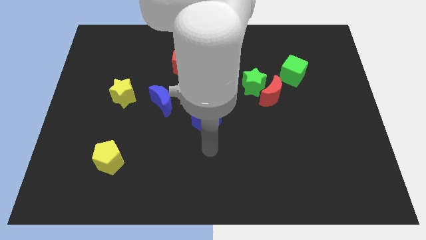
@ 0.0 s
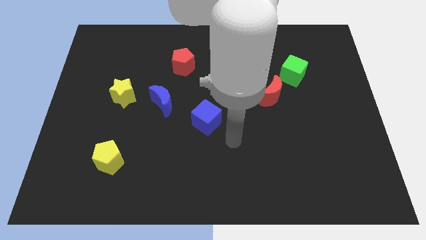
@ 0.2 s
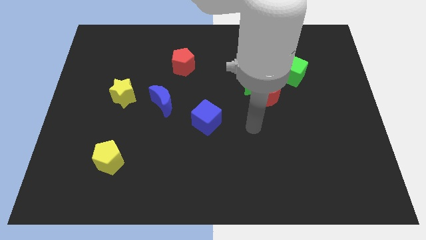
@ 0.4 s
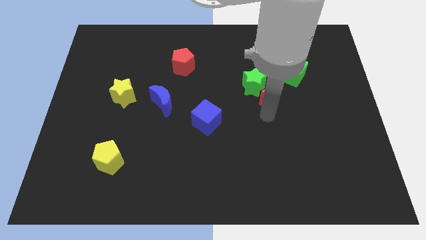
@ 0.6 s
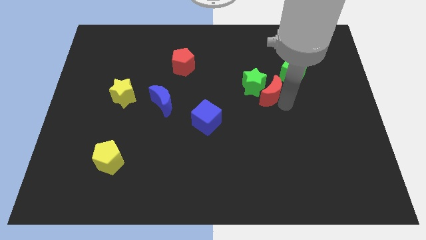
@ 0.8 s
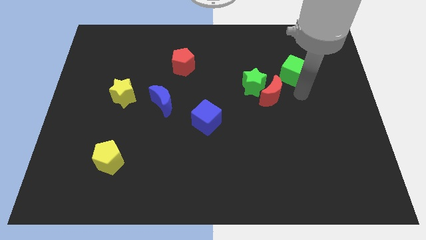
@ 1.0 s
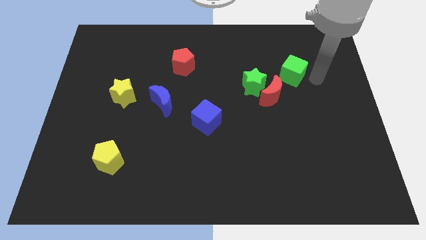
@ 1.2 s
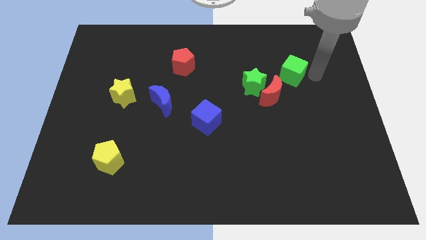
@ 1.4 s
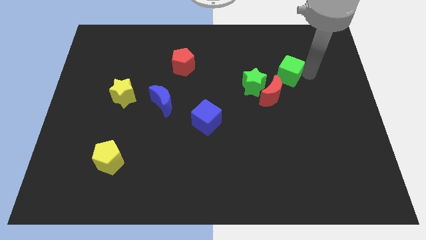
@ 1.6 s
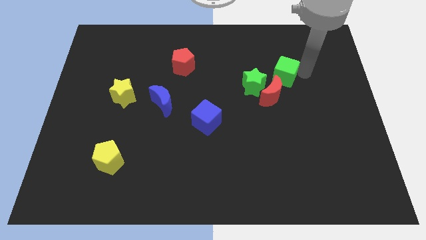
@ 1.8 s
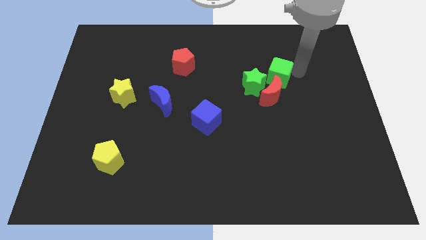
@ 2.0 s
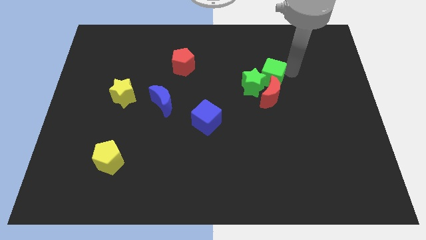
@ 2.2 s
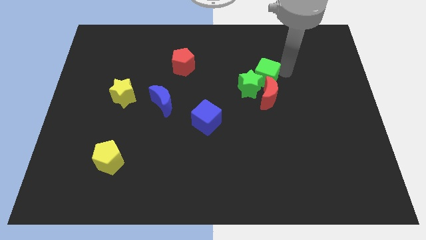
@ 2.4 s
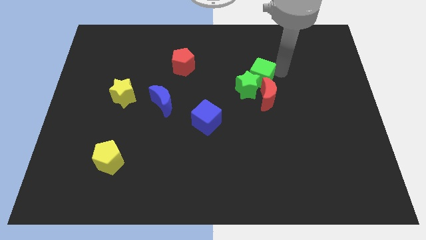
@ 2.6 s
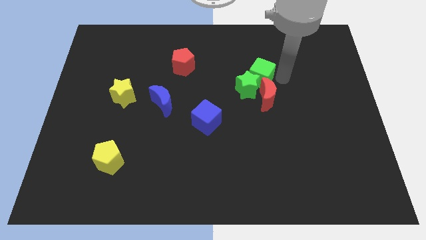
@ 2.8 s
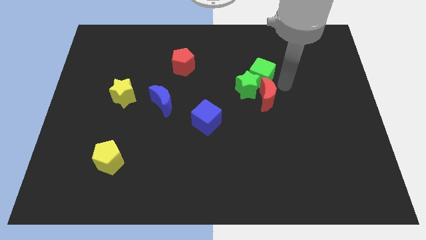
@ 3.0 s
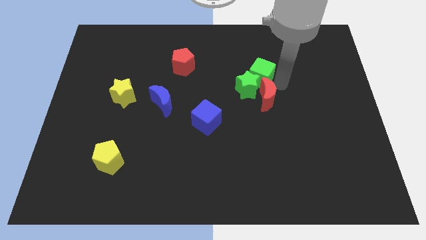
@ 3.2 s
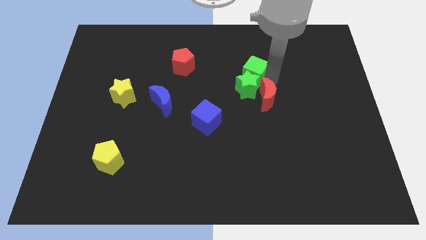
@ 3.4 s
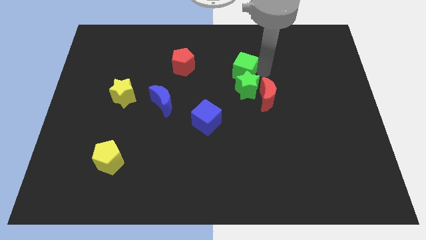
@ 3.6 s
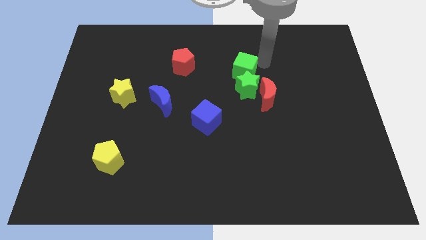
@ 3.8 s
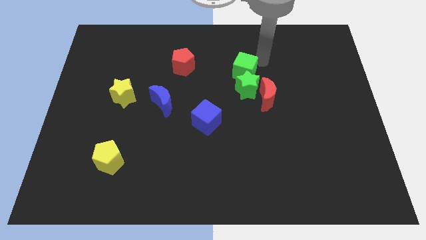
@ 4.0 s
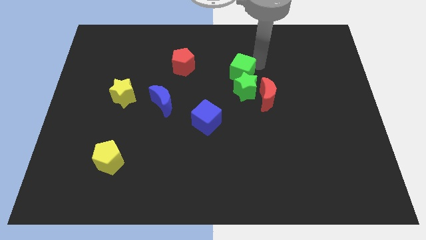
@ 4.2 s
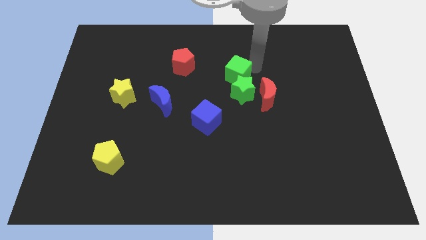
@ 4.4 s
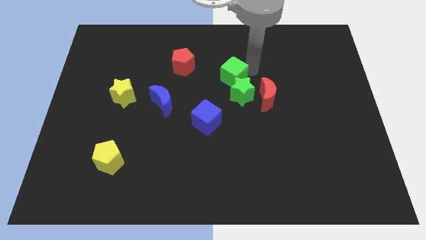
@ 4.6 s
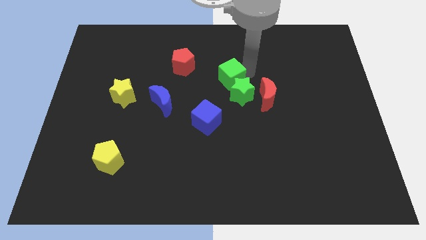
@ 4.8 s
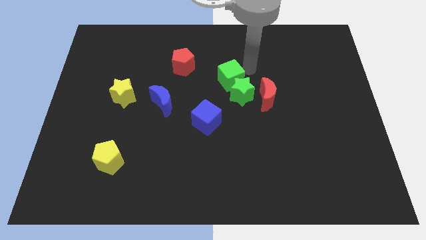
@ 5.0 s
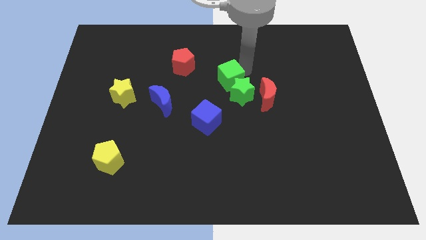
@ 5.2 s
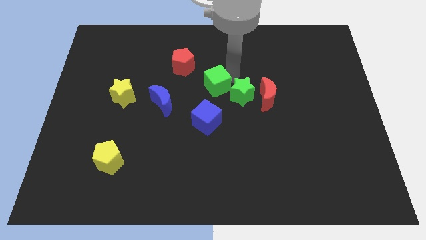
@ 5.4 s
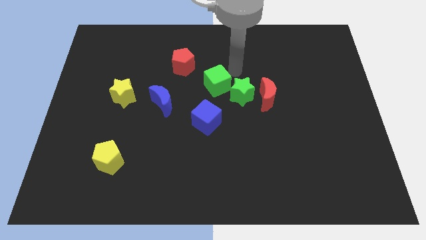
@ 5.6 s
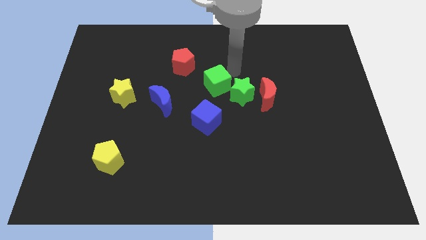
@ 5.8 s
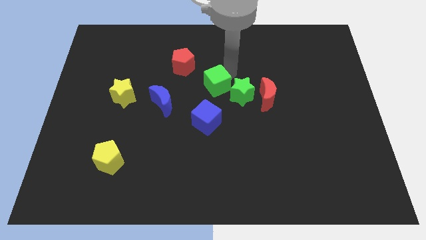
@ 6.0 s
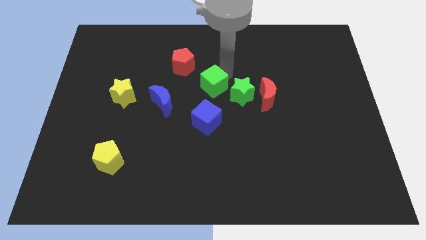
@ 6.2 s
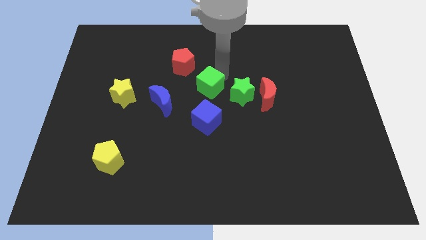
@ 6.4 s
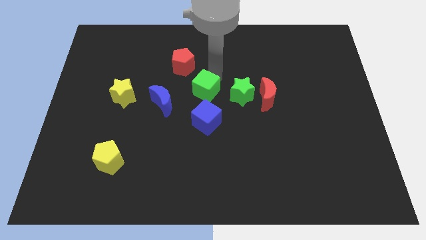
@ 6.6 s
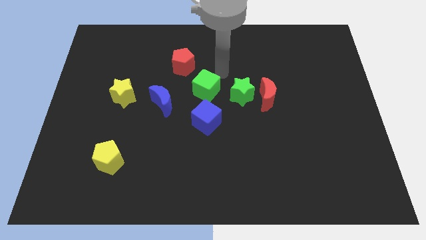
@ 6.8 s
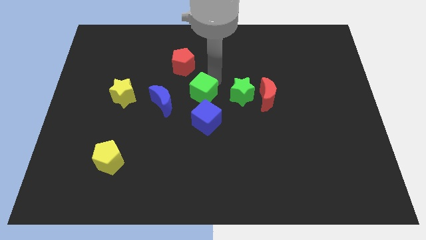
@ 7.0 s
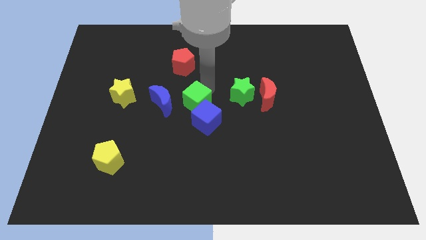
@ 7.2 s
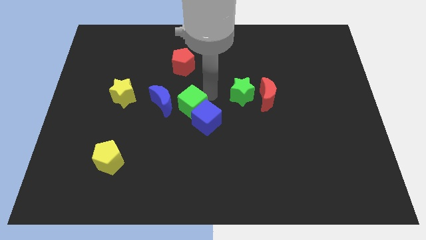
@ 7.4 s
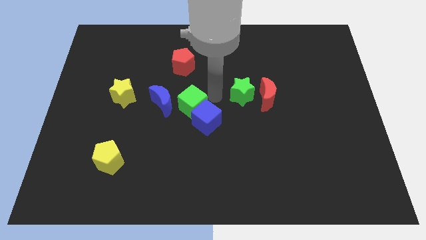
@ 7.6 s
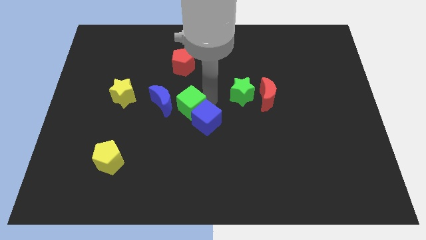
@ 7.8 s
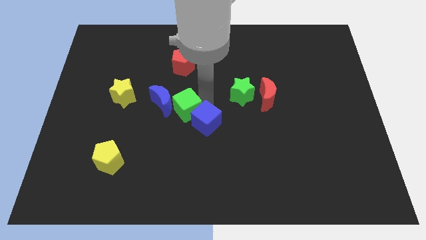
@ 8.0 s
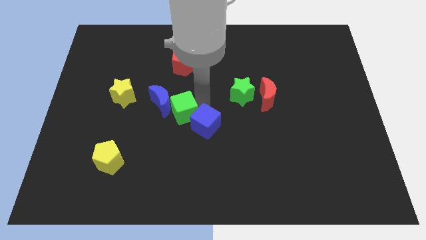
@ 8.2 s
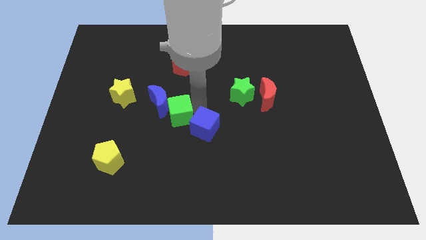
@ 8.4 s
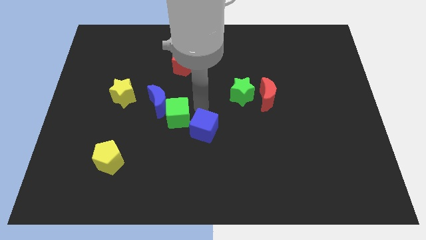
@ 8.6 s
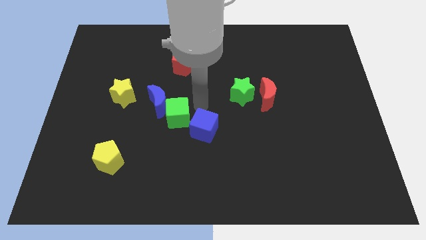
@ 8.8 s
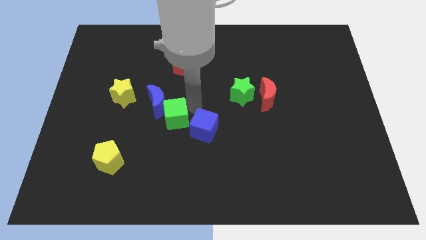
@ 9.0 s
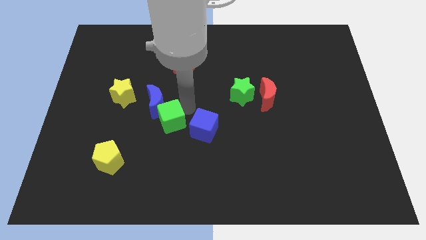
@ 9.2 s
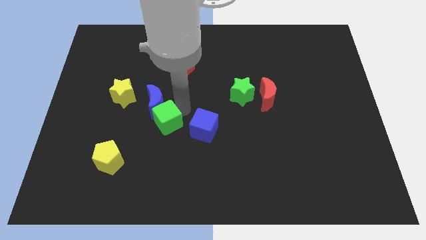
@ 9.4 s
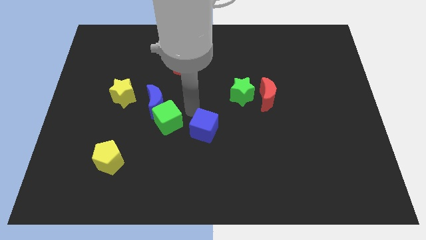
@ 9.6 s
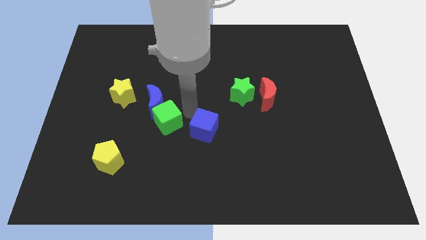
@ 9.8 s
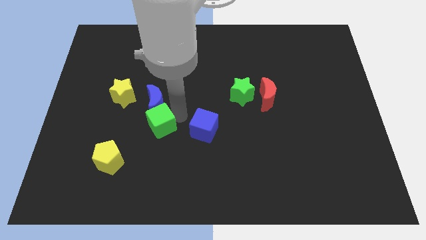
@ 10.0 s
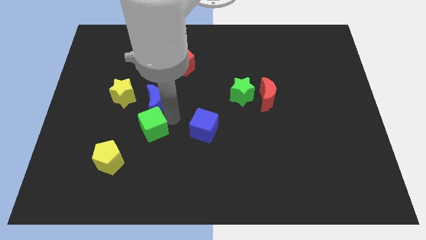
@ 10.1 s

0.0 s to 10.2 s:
move the green cube diagonally up and to the right of the yellow pentagon

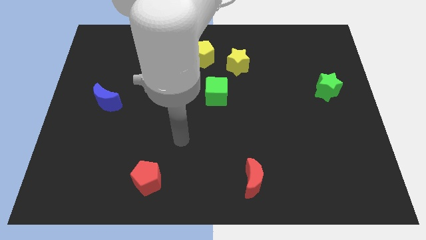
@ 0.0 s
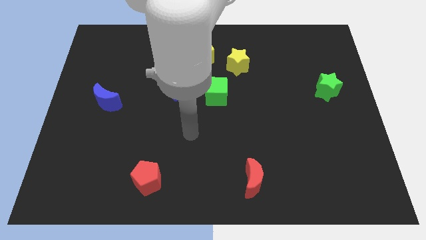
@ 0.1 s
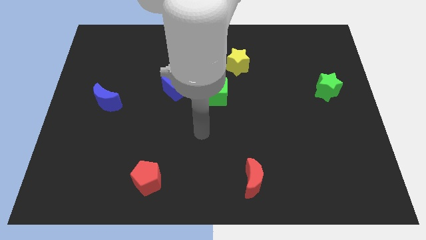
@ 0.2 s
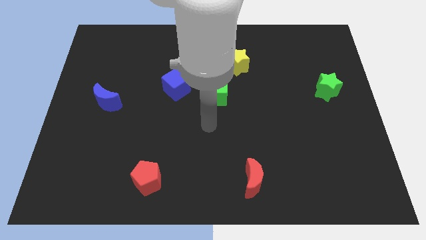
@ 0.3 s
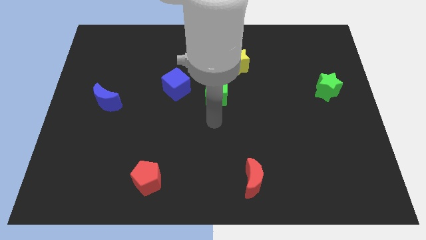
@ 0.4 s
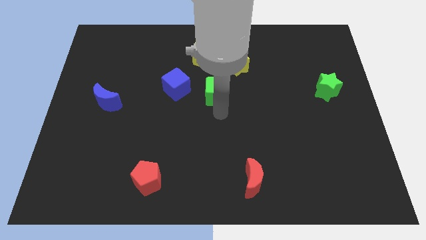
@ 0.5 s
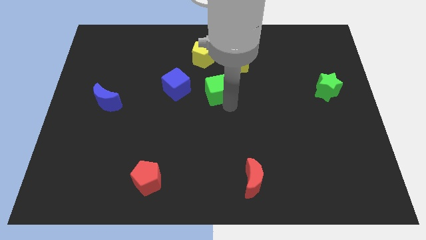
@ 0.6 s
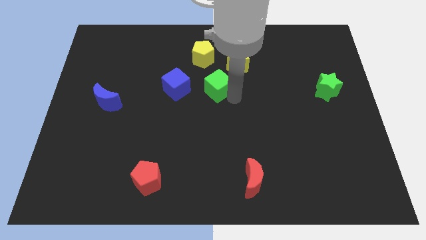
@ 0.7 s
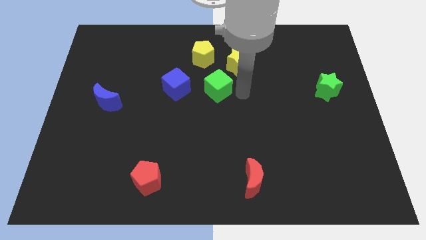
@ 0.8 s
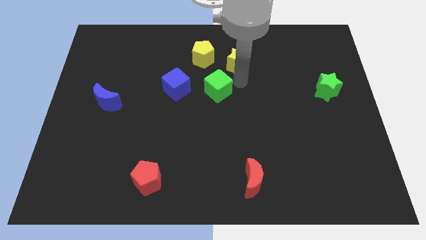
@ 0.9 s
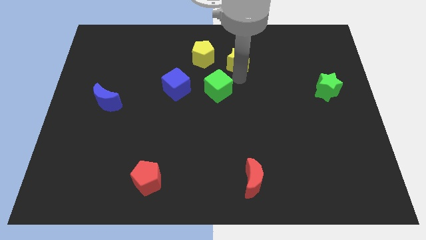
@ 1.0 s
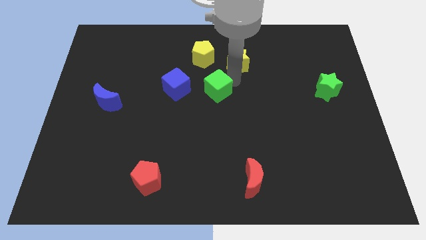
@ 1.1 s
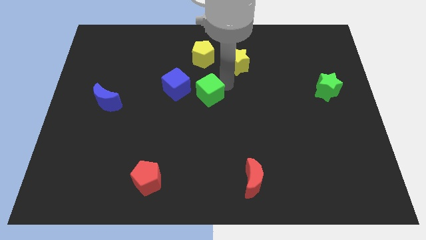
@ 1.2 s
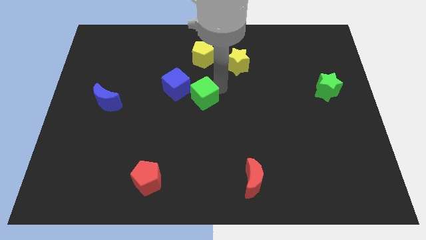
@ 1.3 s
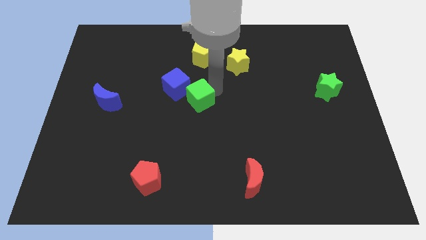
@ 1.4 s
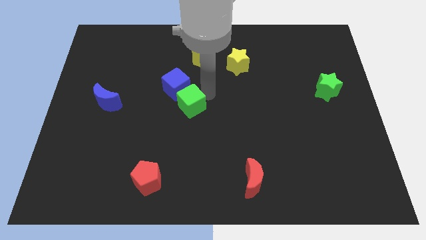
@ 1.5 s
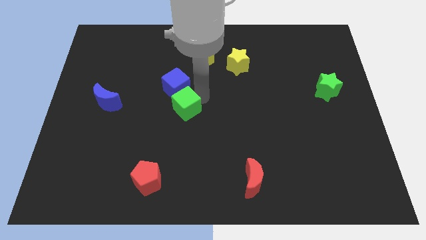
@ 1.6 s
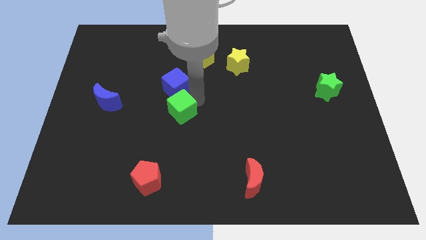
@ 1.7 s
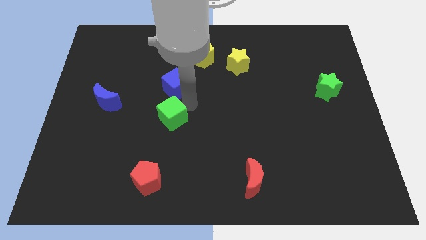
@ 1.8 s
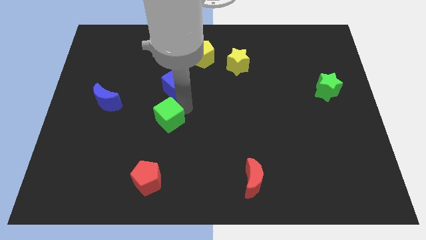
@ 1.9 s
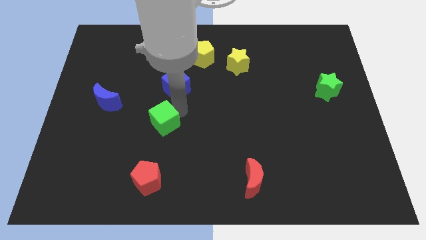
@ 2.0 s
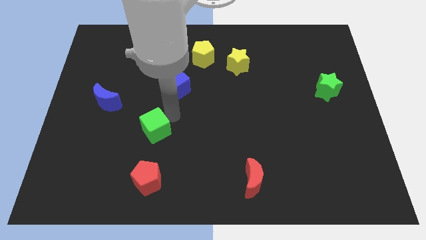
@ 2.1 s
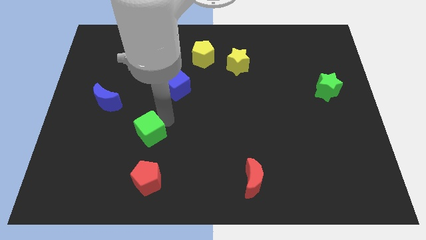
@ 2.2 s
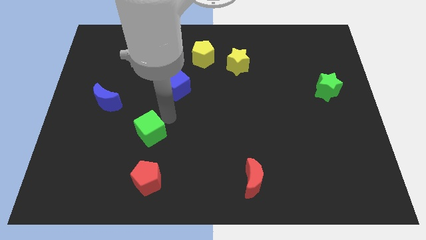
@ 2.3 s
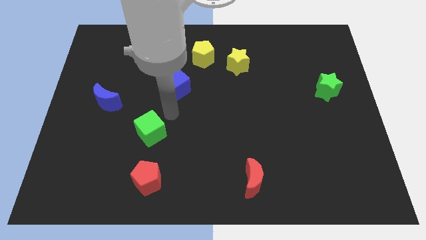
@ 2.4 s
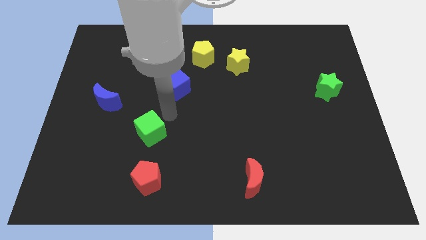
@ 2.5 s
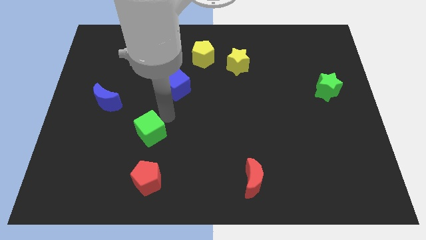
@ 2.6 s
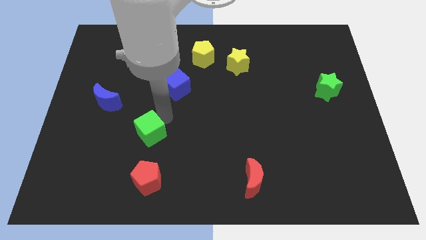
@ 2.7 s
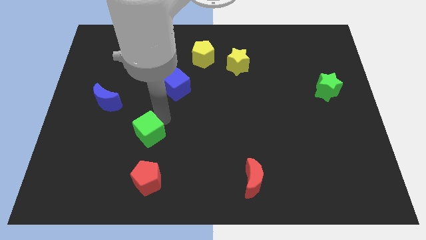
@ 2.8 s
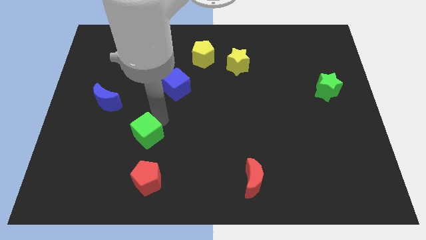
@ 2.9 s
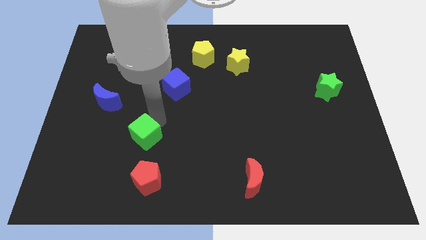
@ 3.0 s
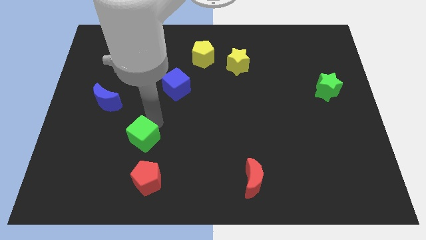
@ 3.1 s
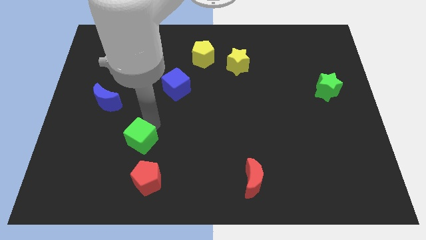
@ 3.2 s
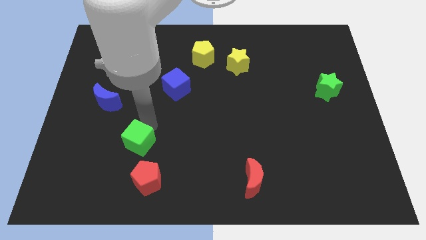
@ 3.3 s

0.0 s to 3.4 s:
put the green cube diagonally up and to the left of the red pentagon
